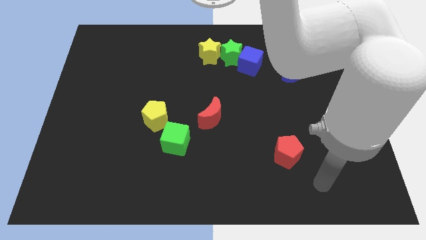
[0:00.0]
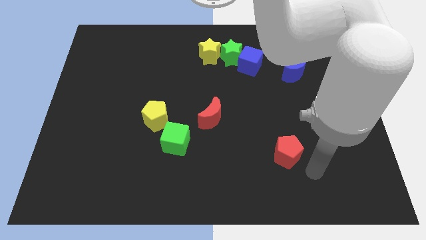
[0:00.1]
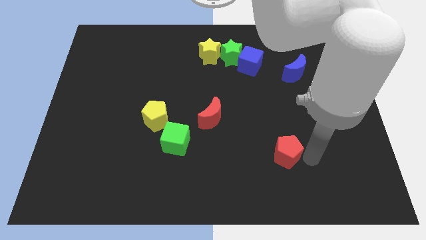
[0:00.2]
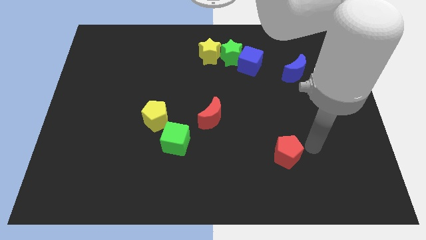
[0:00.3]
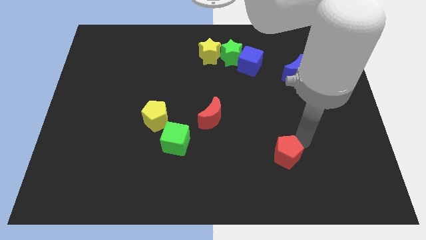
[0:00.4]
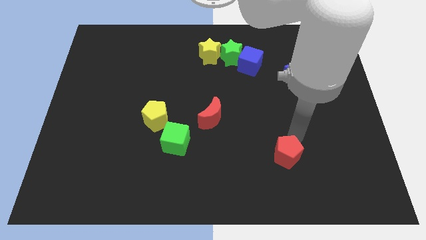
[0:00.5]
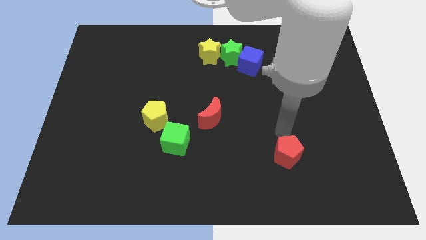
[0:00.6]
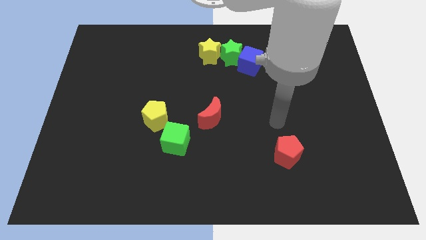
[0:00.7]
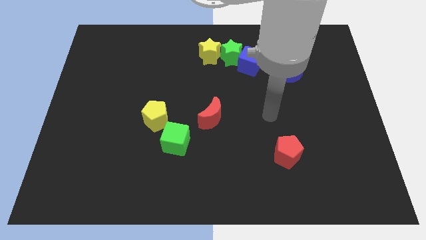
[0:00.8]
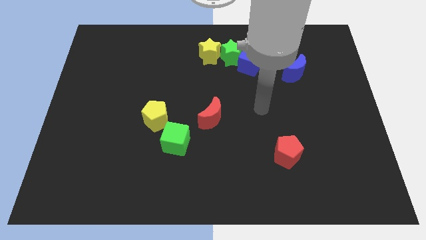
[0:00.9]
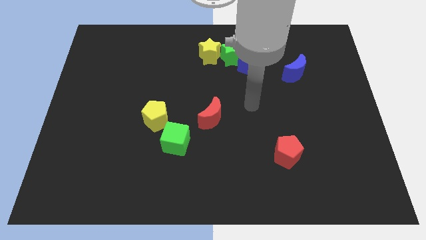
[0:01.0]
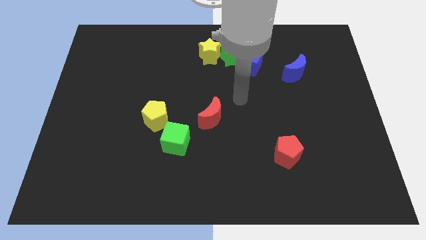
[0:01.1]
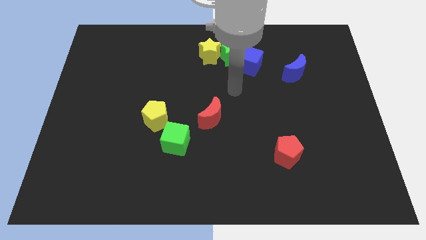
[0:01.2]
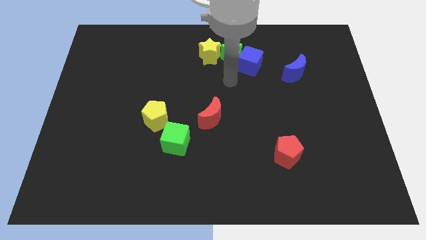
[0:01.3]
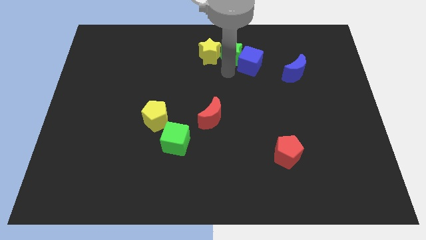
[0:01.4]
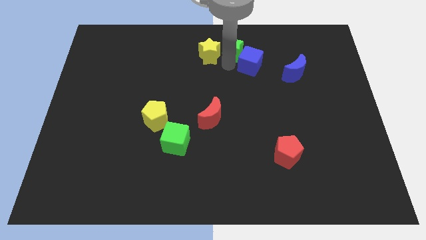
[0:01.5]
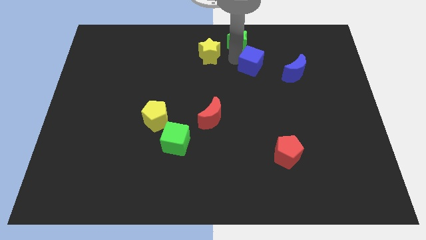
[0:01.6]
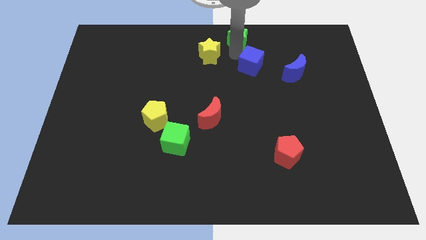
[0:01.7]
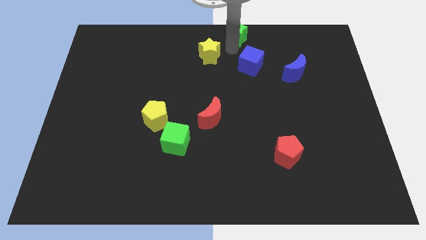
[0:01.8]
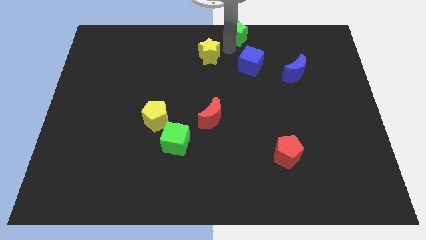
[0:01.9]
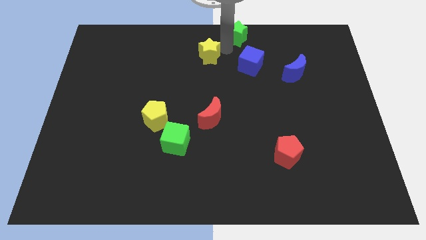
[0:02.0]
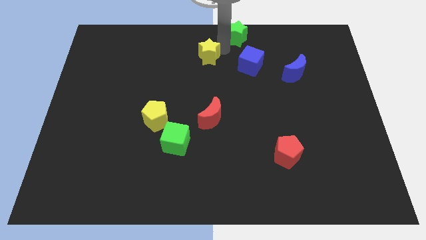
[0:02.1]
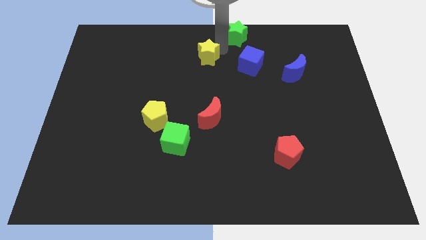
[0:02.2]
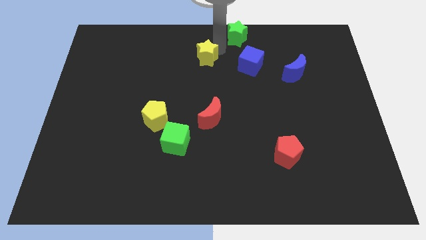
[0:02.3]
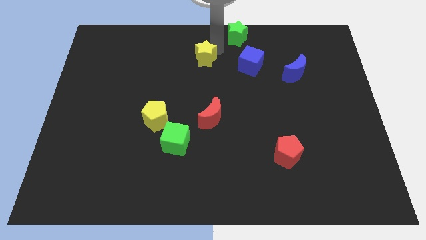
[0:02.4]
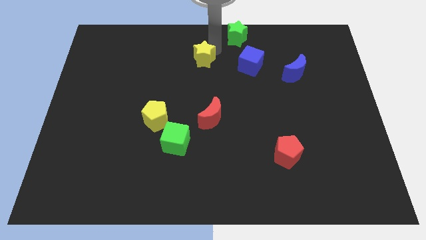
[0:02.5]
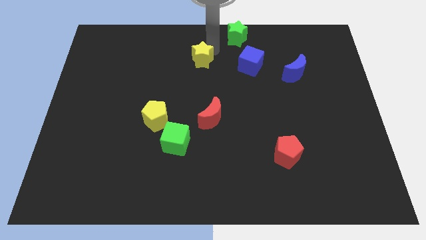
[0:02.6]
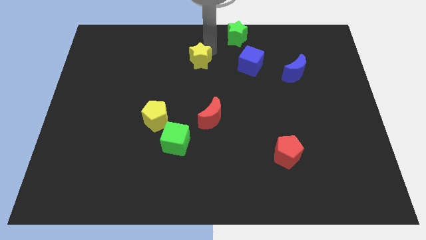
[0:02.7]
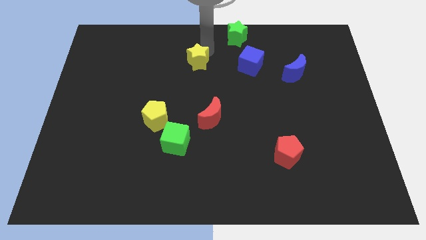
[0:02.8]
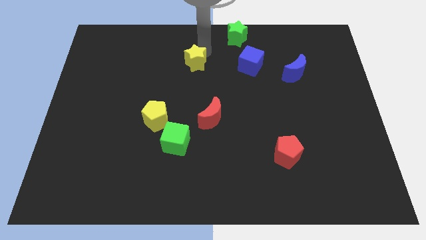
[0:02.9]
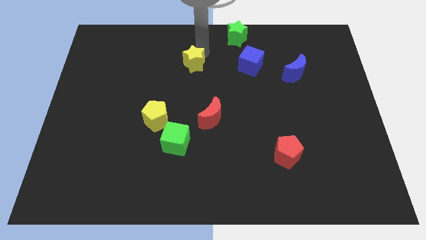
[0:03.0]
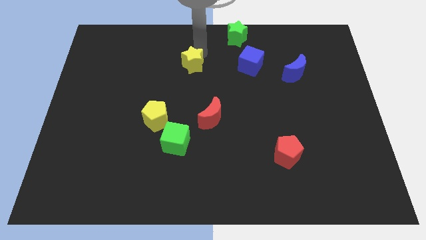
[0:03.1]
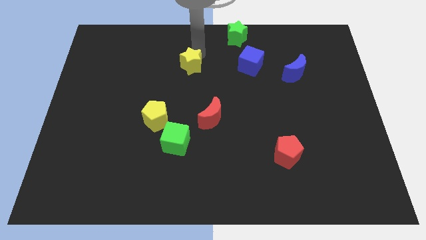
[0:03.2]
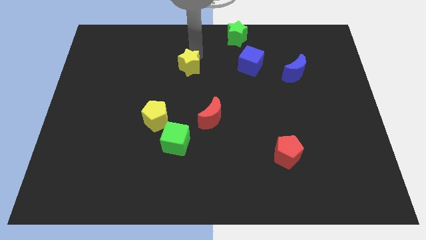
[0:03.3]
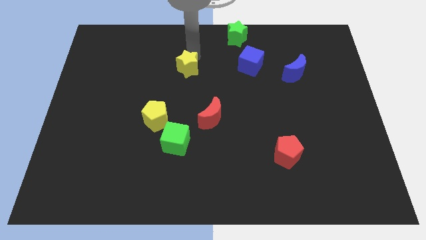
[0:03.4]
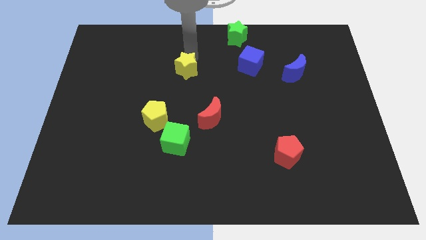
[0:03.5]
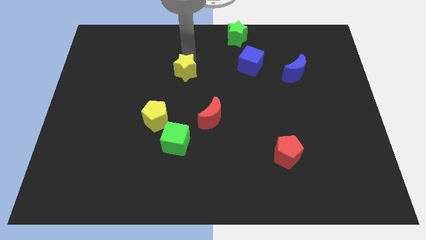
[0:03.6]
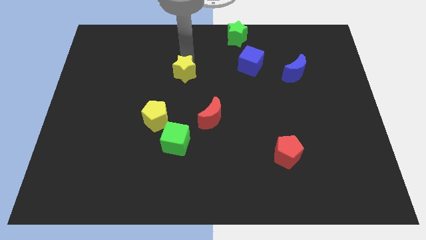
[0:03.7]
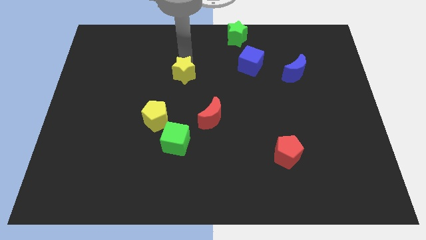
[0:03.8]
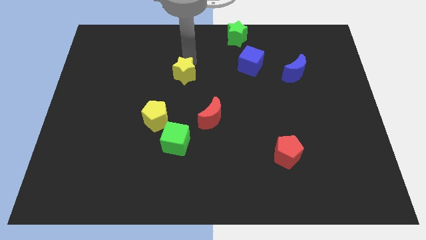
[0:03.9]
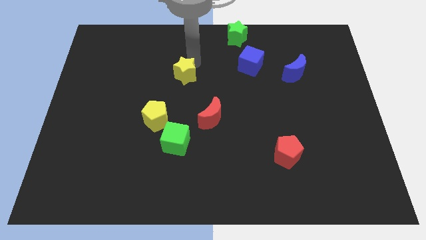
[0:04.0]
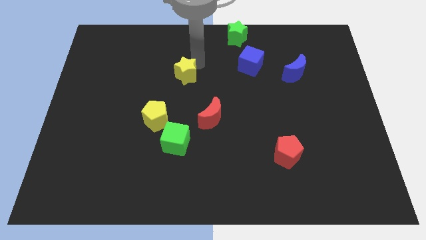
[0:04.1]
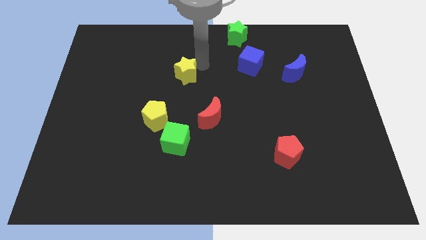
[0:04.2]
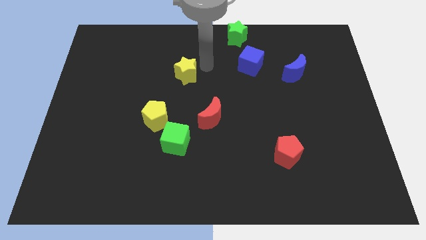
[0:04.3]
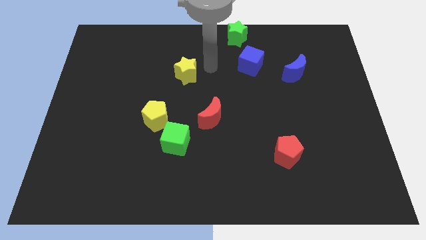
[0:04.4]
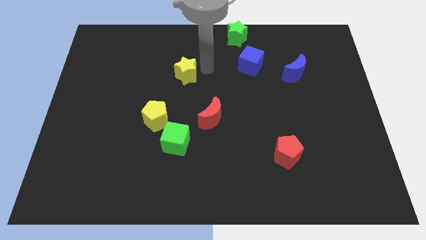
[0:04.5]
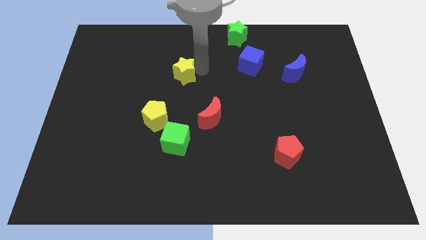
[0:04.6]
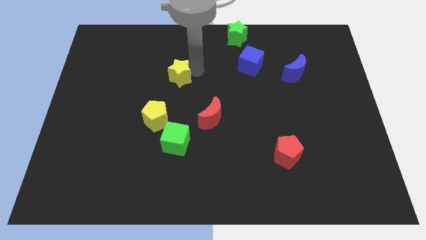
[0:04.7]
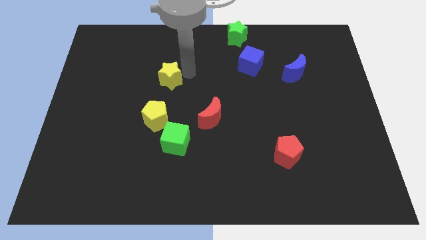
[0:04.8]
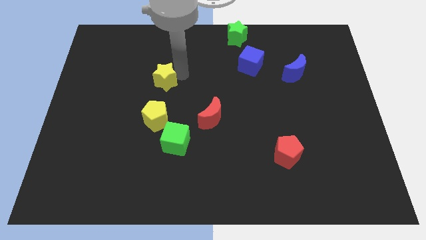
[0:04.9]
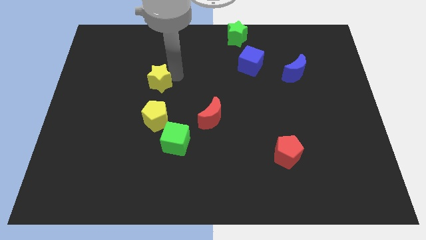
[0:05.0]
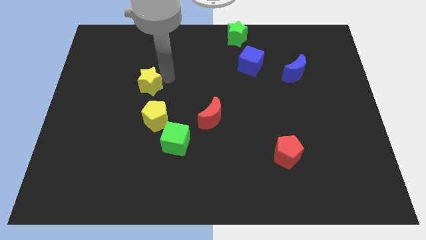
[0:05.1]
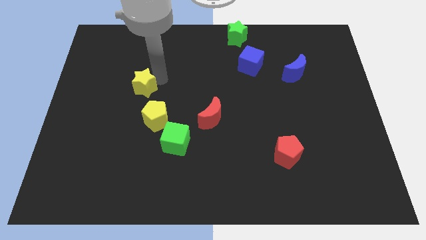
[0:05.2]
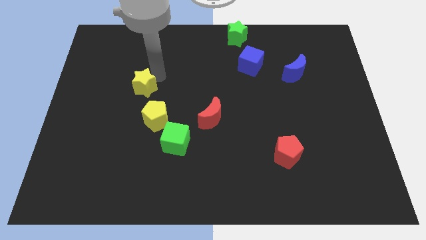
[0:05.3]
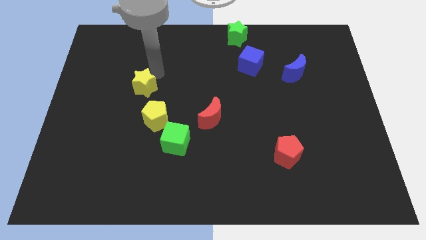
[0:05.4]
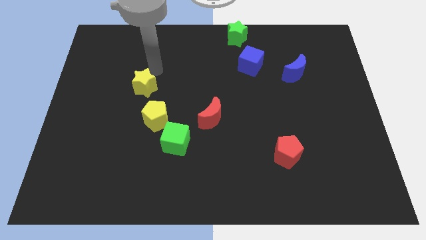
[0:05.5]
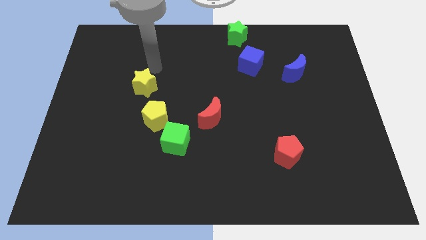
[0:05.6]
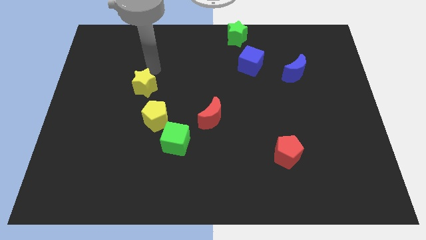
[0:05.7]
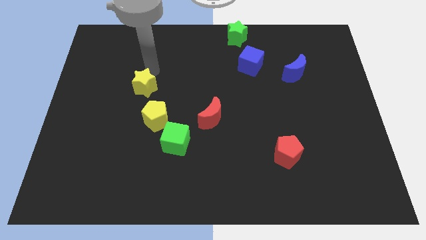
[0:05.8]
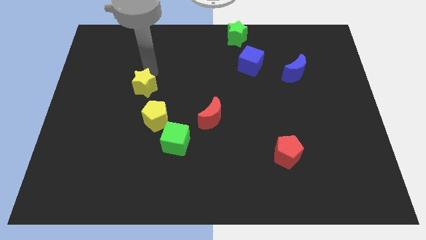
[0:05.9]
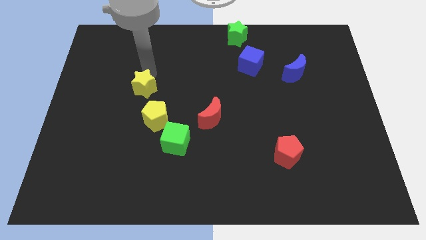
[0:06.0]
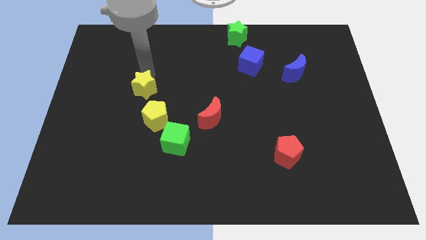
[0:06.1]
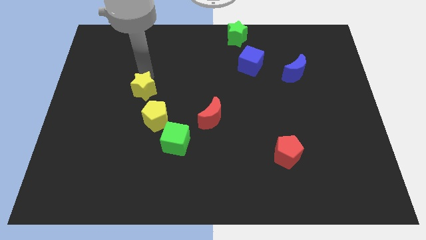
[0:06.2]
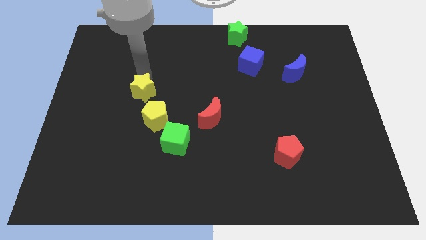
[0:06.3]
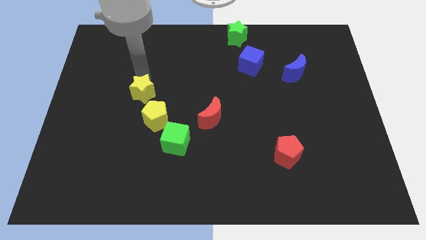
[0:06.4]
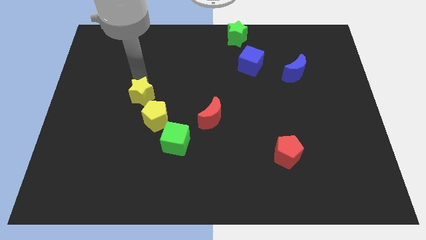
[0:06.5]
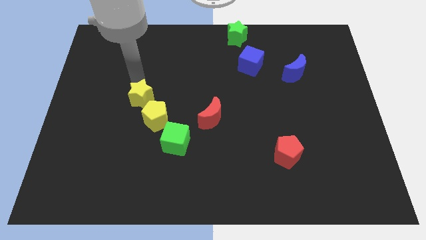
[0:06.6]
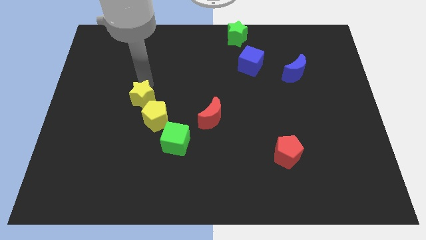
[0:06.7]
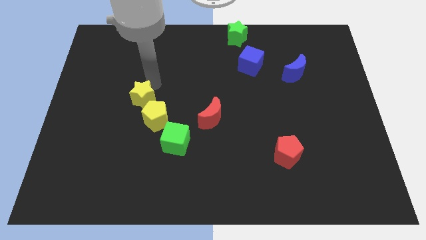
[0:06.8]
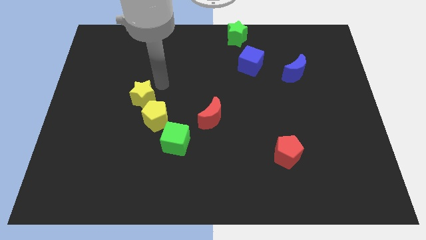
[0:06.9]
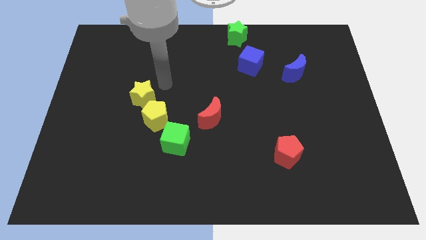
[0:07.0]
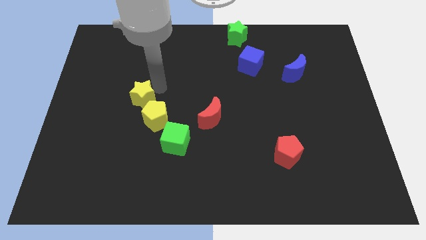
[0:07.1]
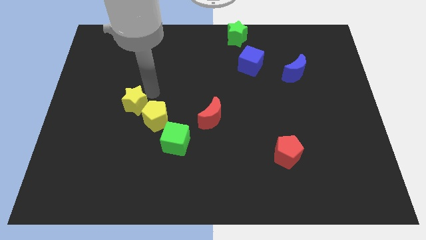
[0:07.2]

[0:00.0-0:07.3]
move the yellow star to the left side of the yellow pentagon
